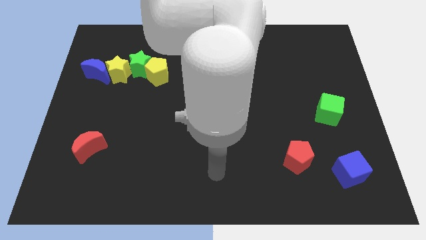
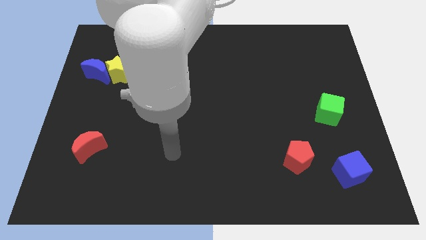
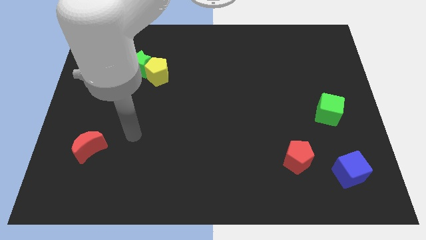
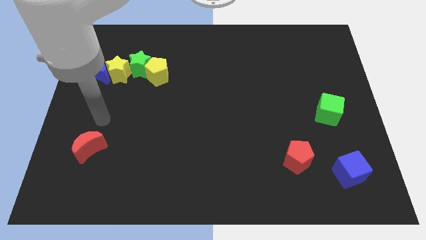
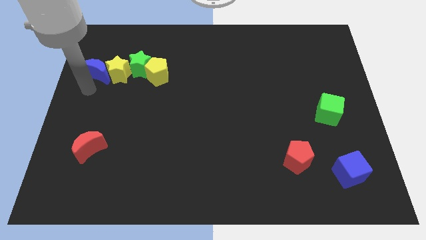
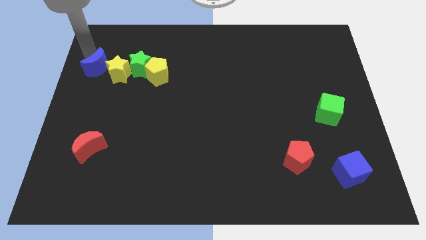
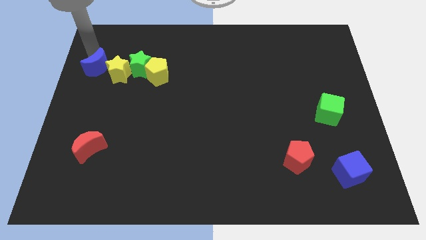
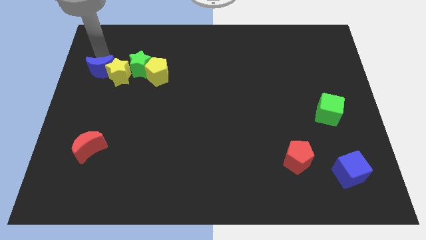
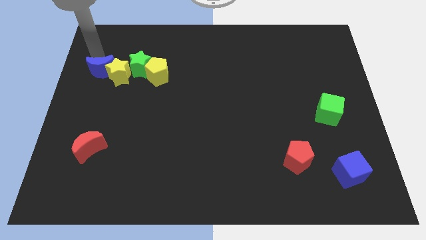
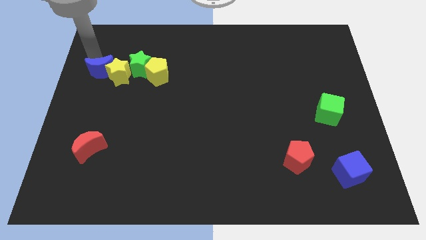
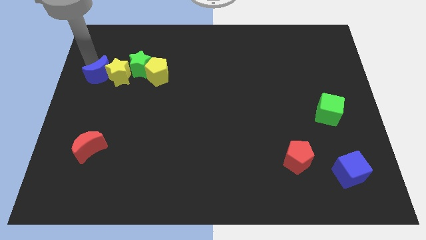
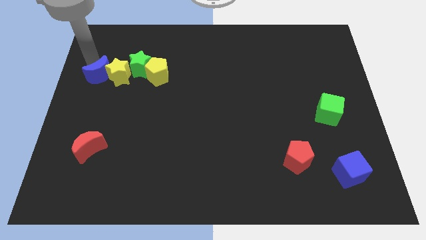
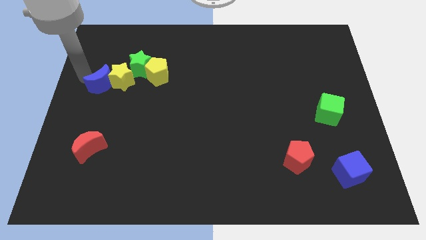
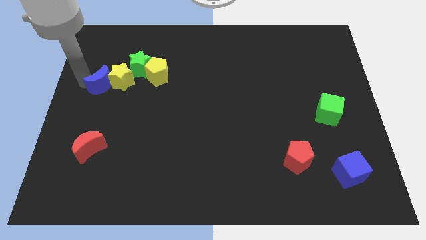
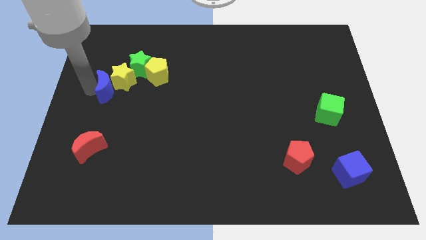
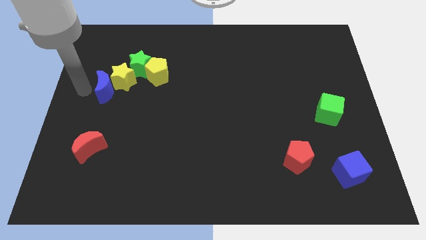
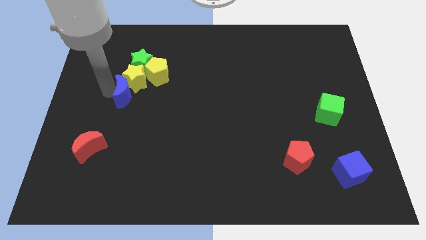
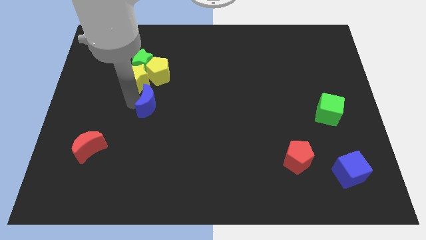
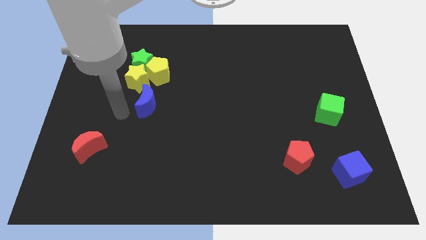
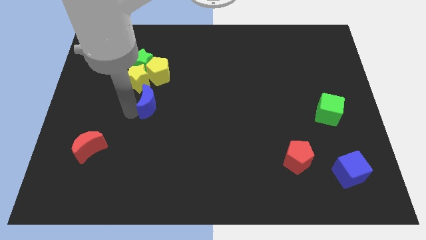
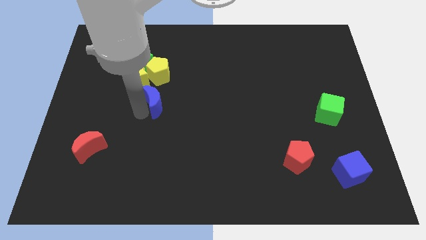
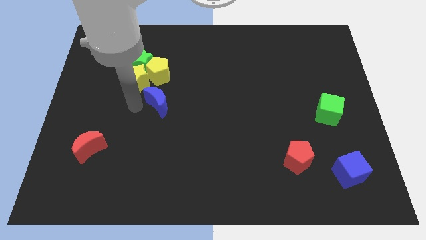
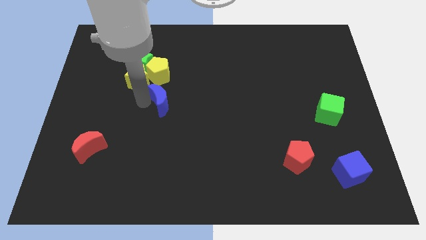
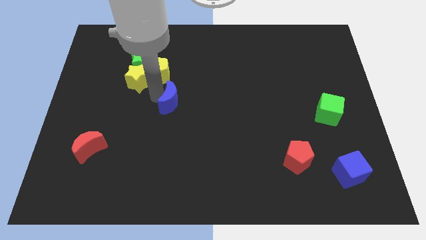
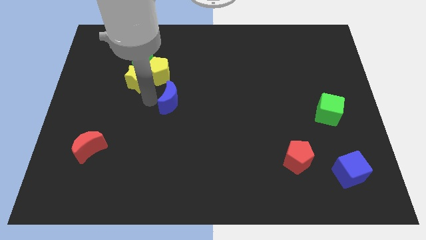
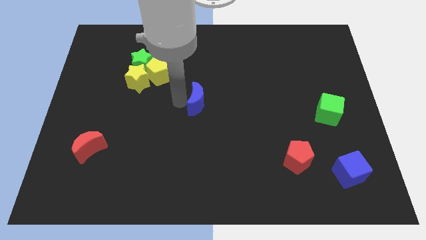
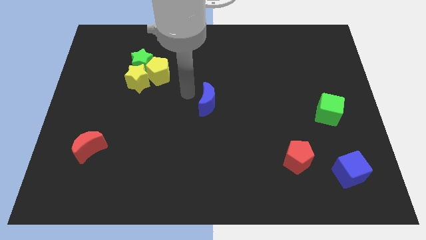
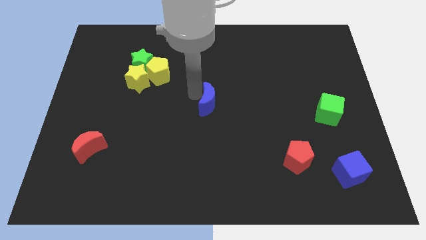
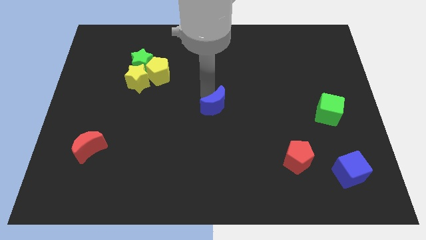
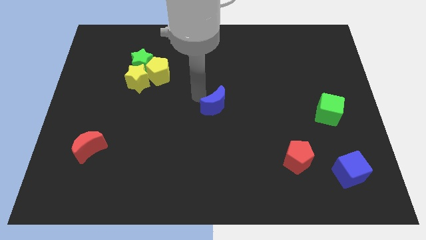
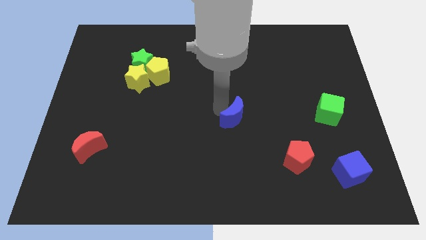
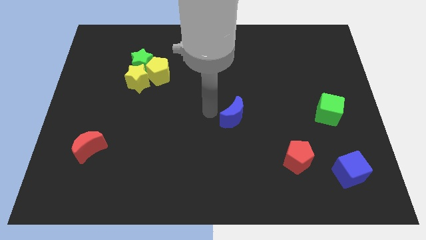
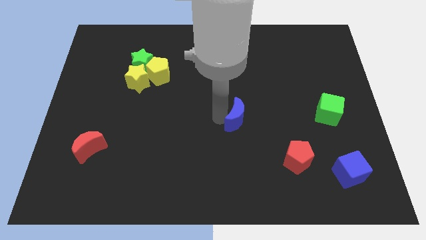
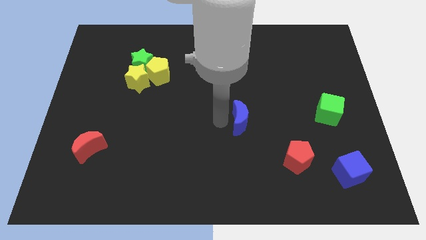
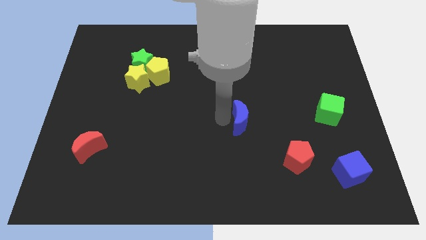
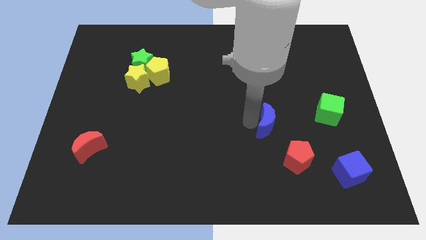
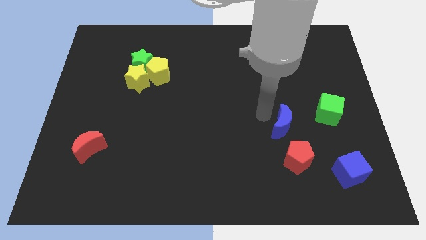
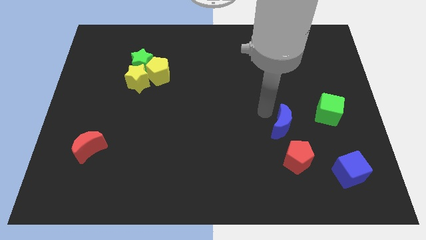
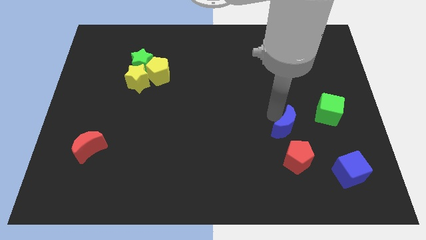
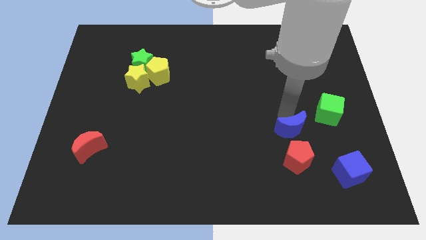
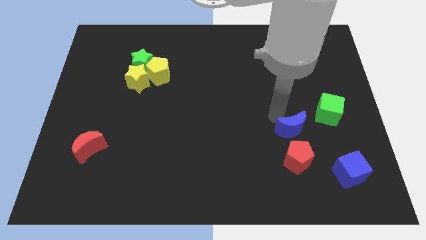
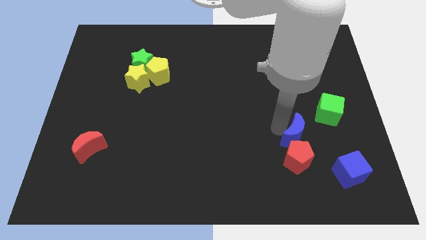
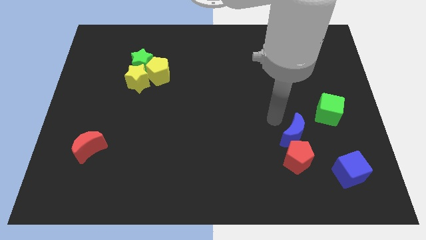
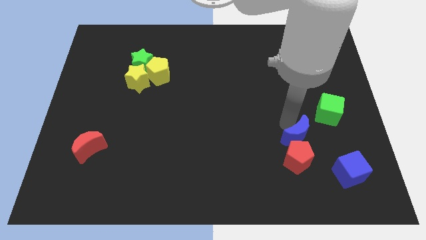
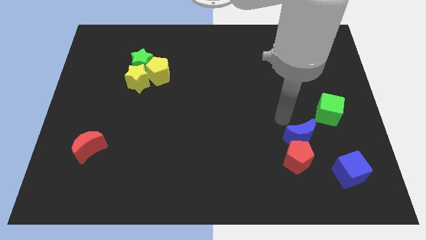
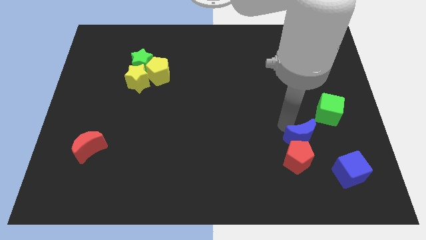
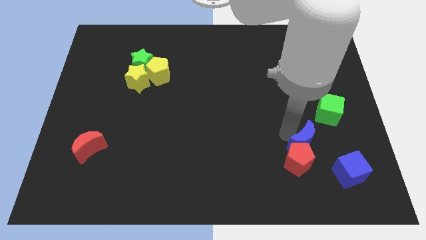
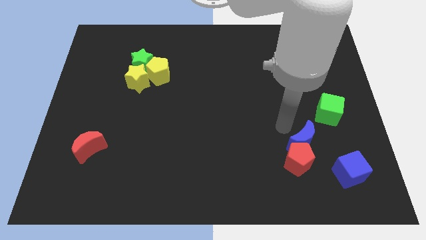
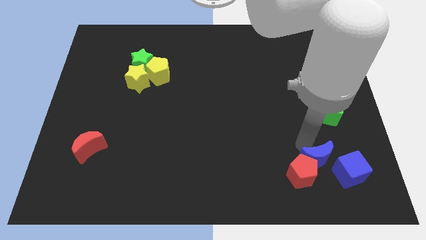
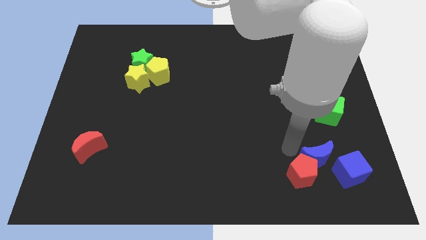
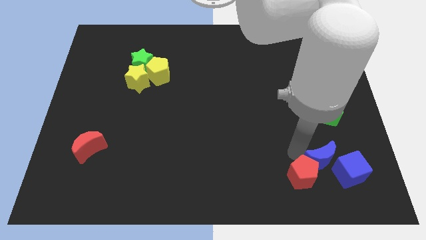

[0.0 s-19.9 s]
move the blue moon next to the blue cube

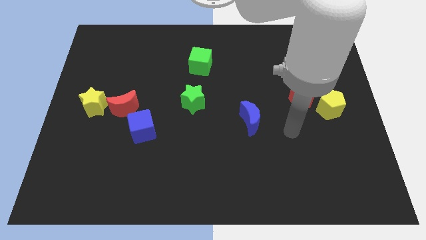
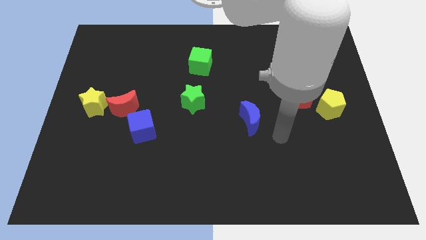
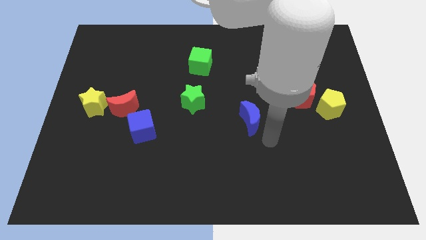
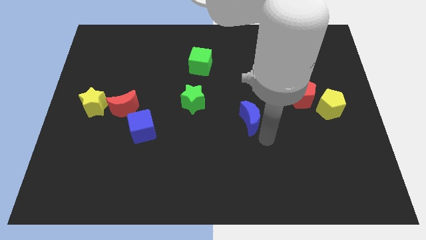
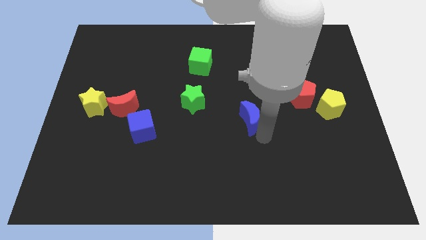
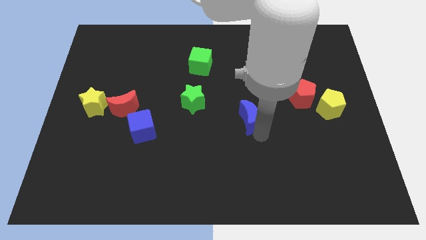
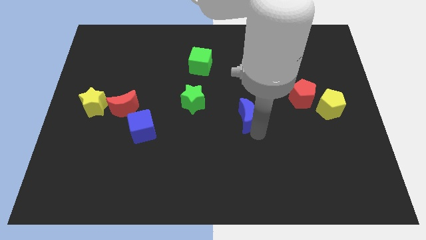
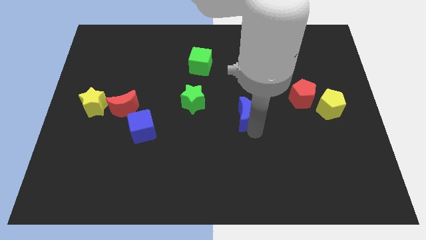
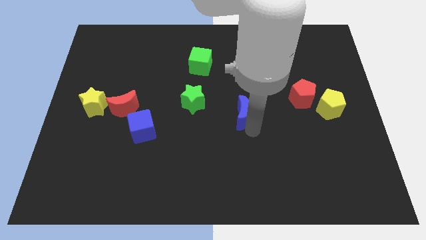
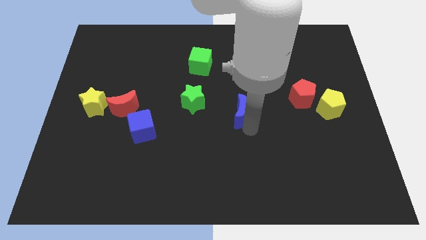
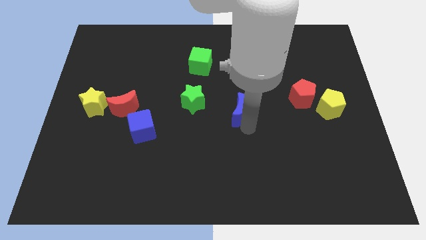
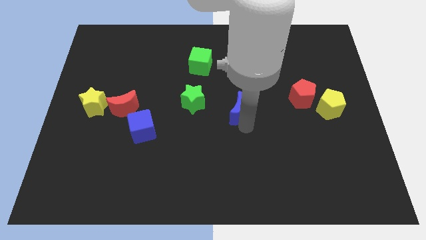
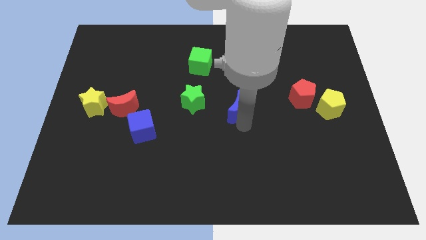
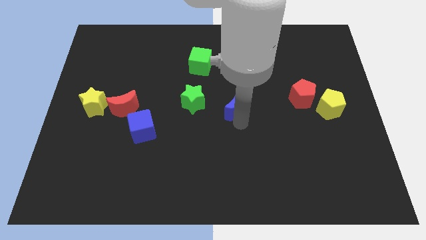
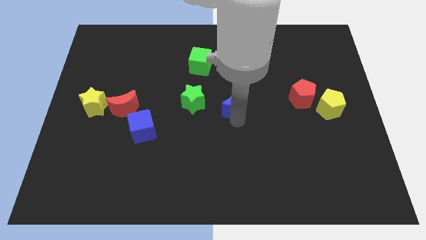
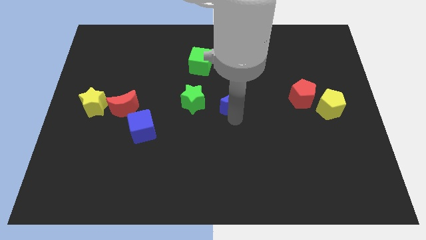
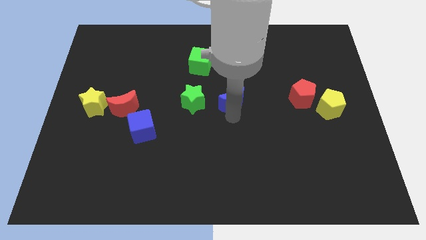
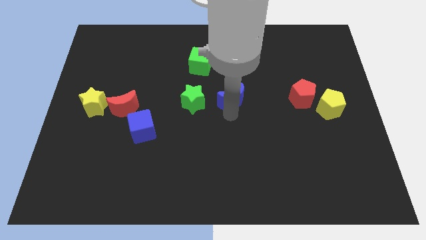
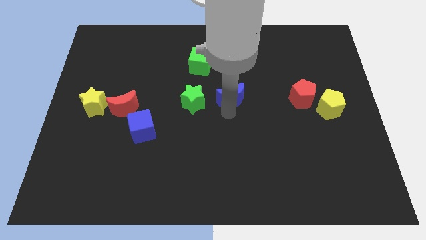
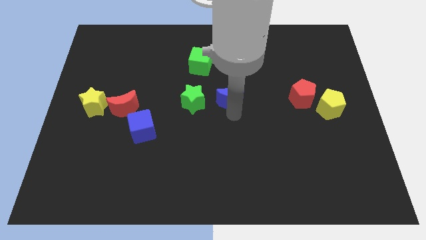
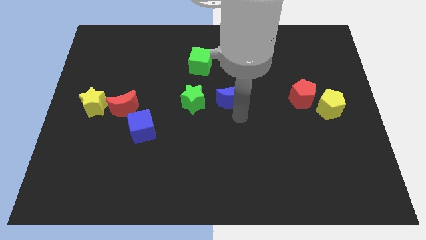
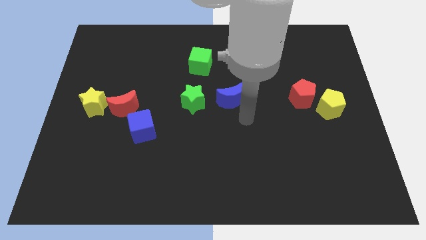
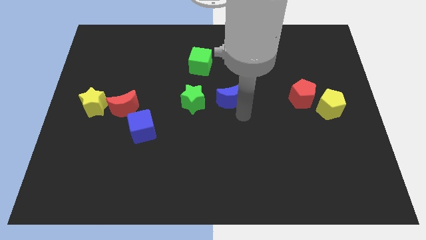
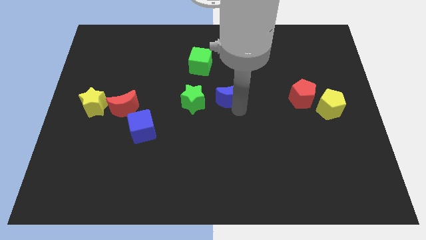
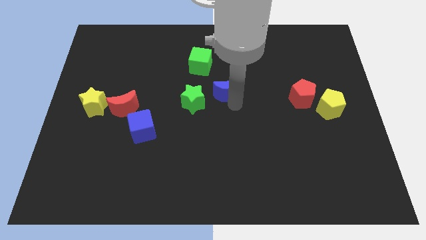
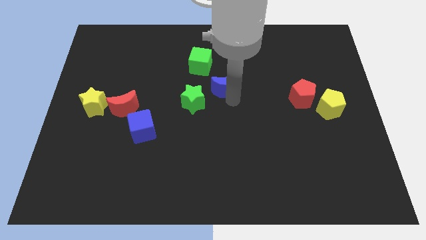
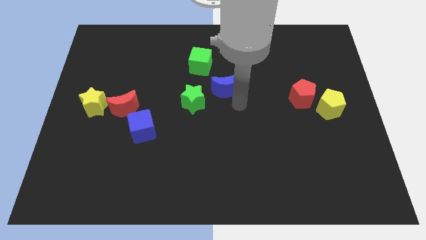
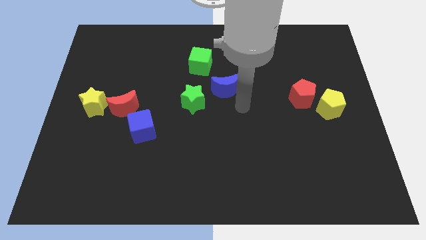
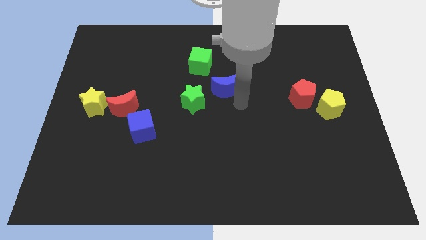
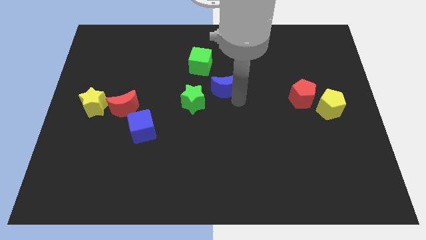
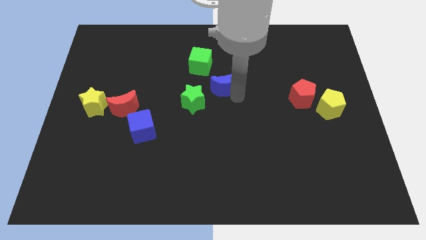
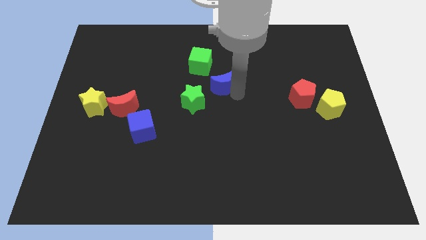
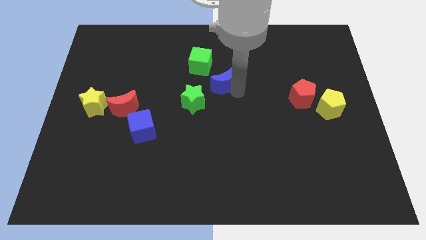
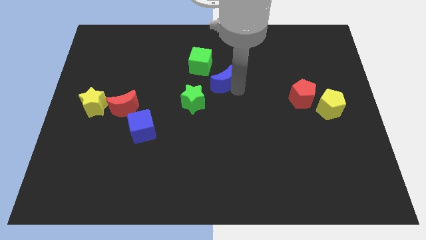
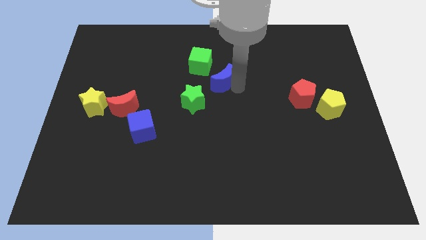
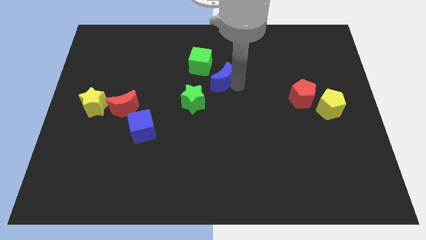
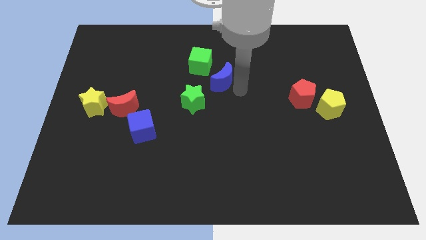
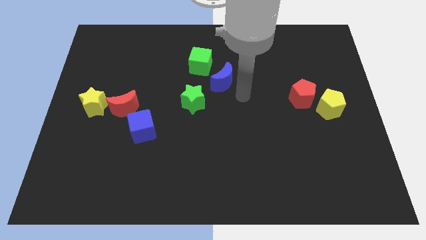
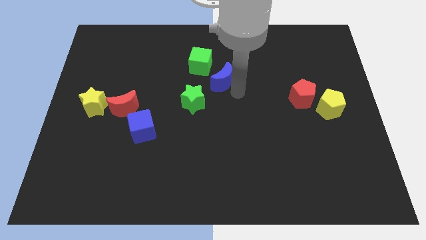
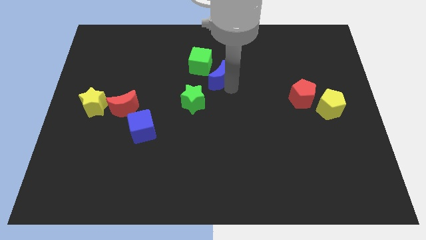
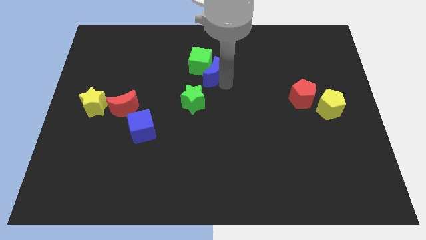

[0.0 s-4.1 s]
push the blue moon close to the green cube
